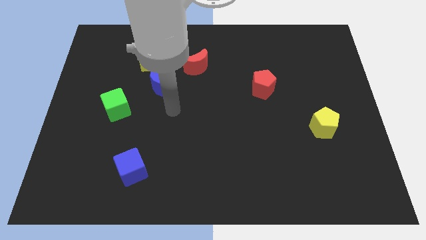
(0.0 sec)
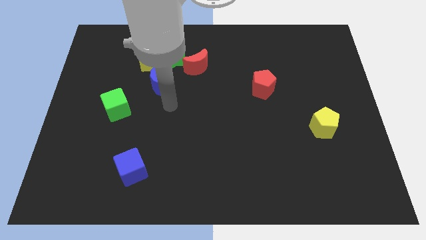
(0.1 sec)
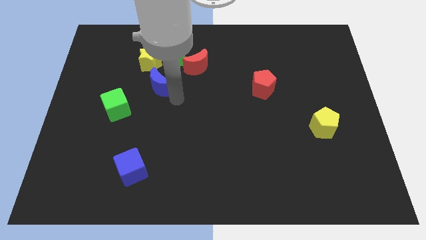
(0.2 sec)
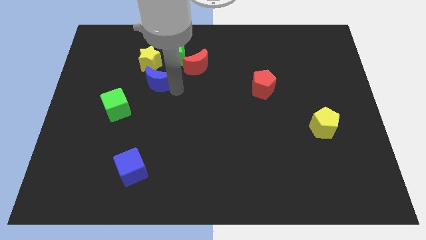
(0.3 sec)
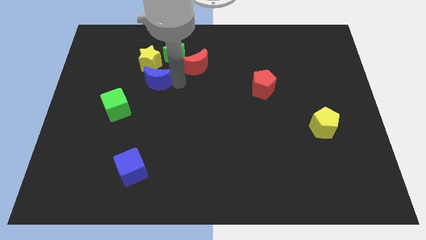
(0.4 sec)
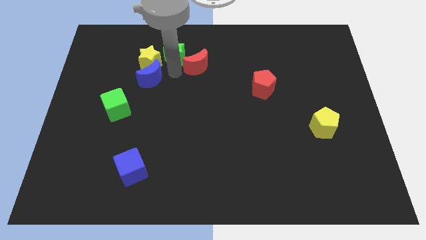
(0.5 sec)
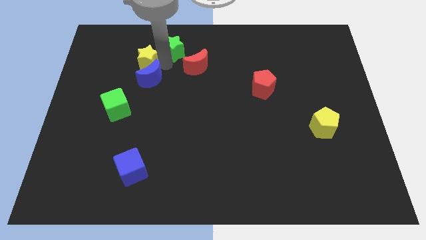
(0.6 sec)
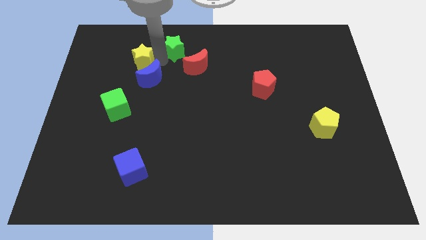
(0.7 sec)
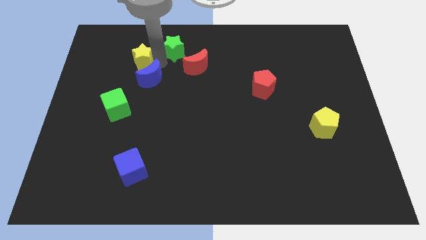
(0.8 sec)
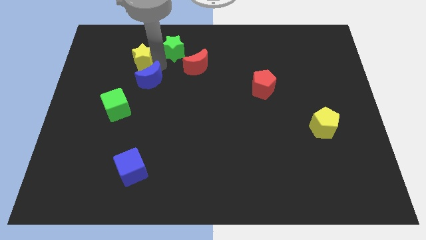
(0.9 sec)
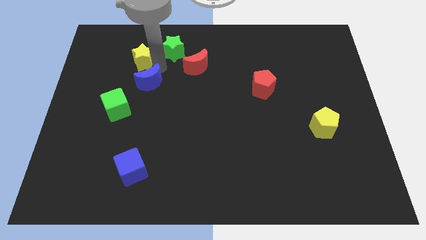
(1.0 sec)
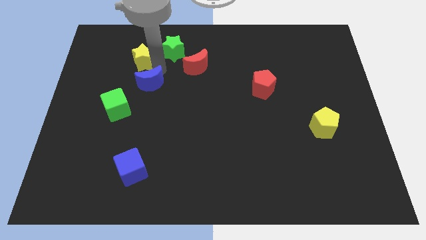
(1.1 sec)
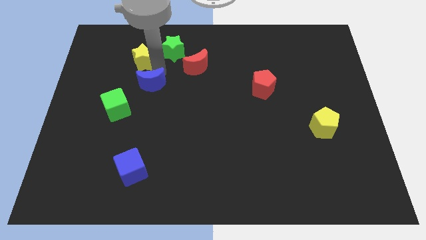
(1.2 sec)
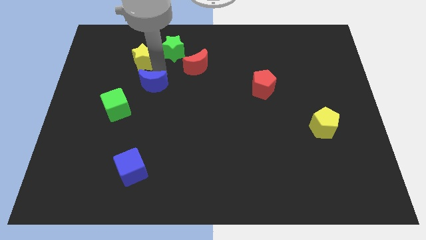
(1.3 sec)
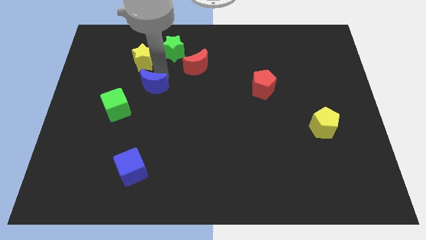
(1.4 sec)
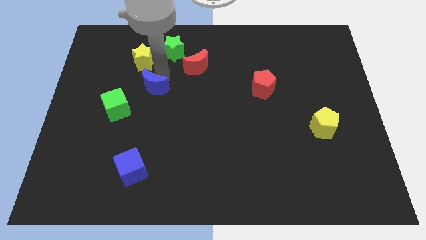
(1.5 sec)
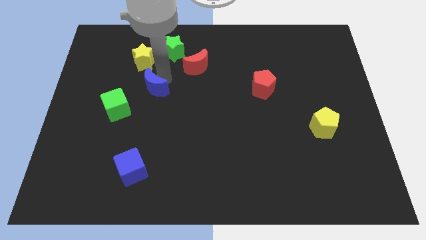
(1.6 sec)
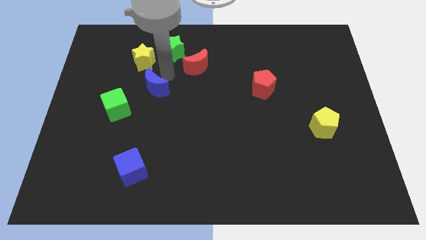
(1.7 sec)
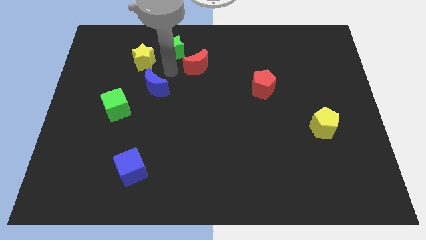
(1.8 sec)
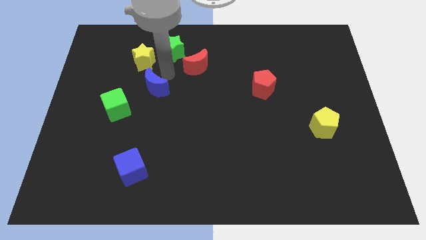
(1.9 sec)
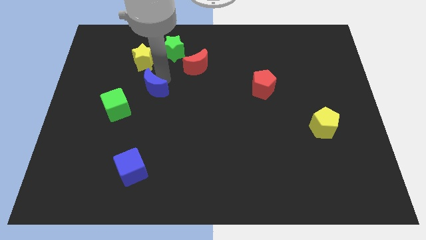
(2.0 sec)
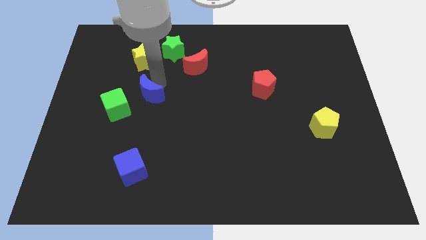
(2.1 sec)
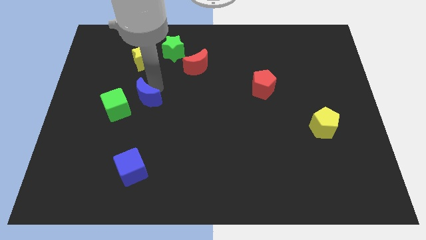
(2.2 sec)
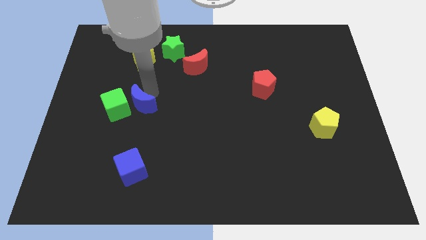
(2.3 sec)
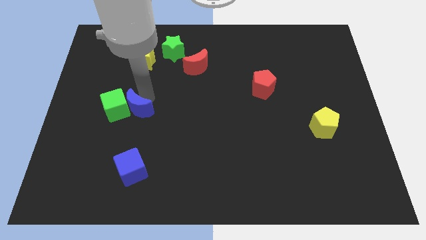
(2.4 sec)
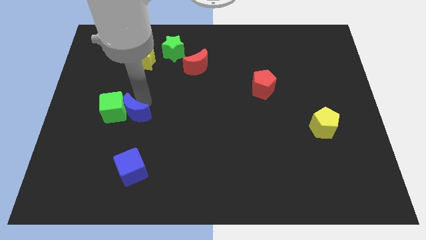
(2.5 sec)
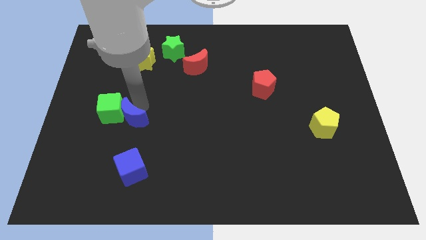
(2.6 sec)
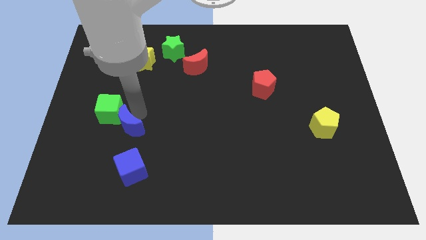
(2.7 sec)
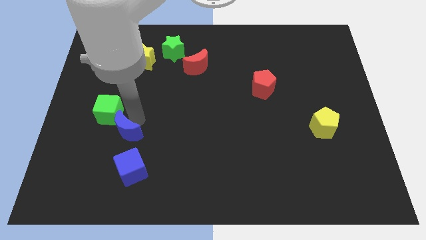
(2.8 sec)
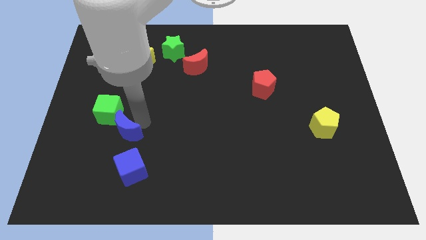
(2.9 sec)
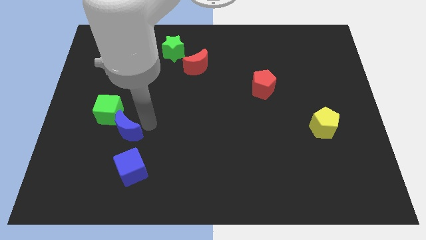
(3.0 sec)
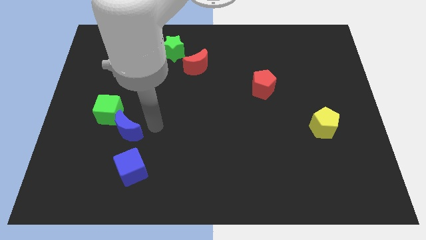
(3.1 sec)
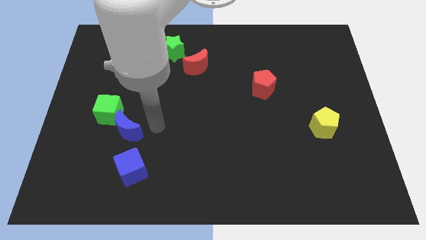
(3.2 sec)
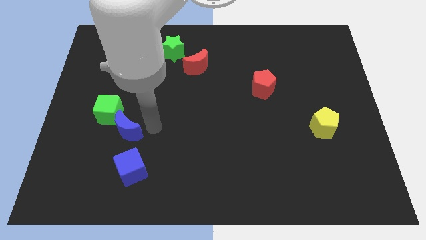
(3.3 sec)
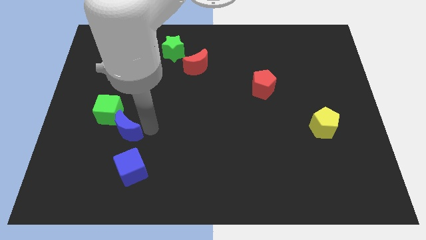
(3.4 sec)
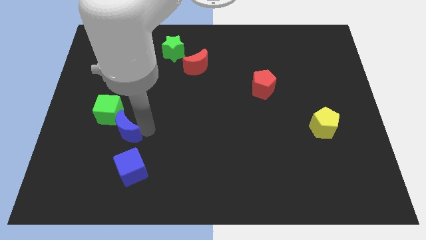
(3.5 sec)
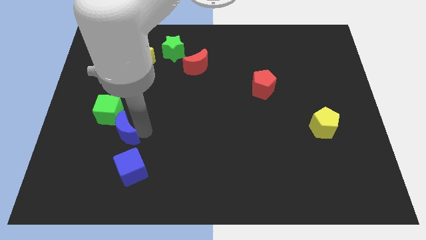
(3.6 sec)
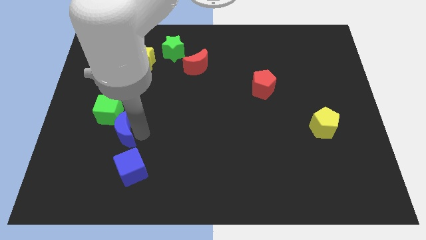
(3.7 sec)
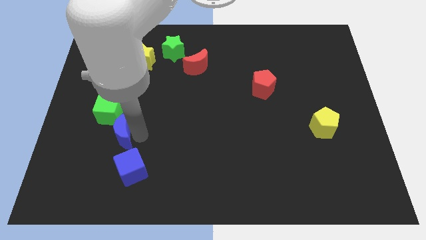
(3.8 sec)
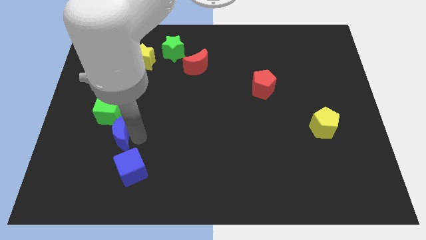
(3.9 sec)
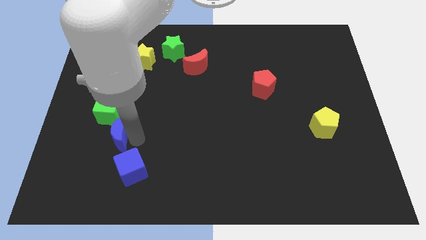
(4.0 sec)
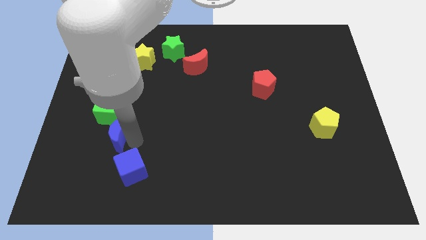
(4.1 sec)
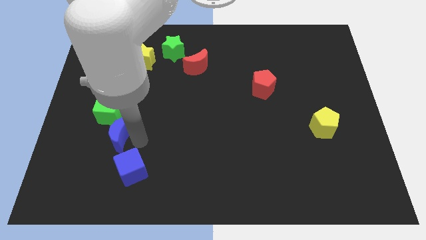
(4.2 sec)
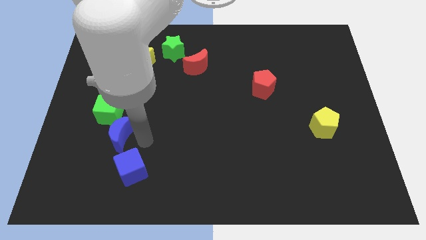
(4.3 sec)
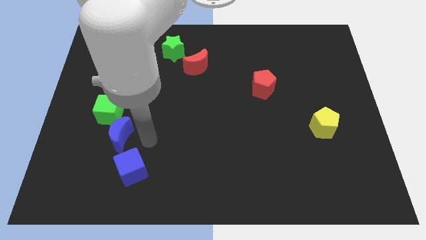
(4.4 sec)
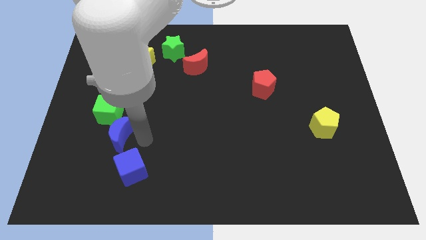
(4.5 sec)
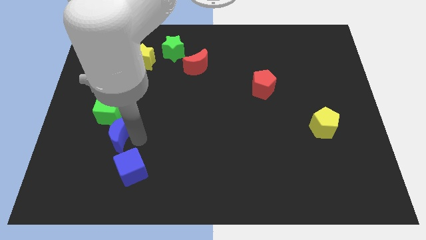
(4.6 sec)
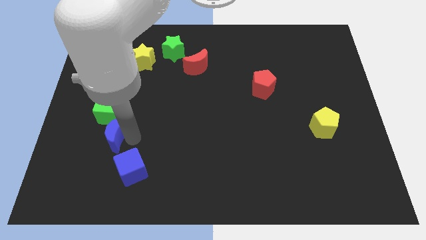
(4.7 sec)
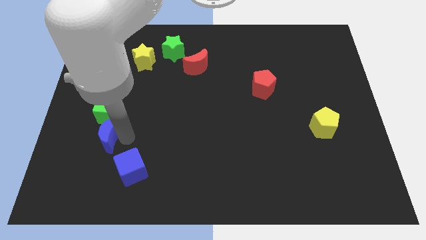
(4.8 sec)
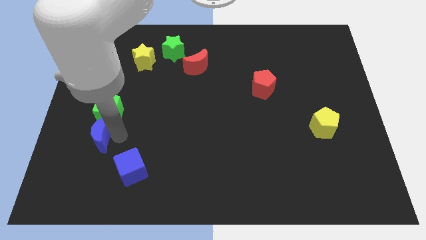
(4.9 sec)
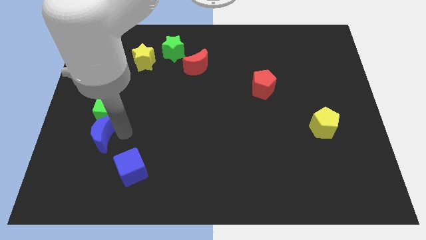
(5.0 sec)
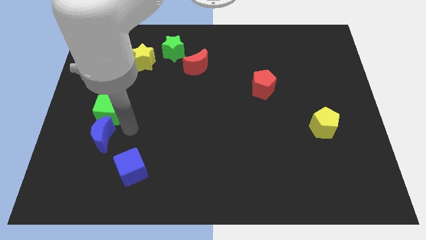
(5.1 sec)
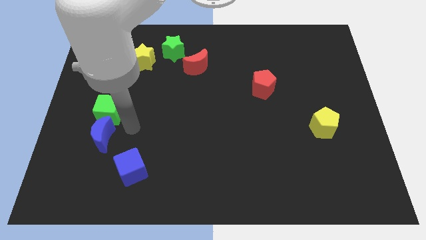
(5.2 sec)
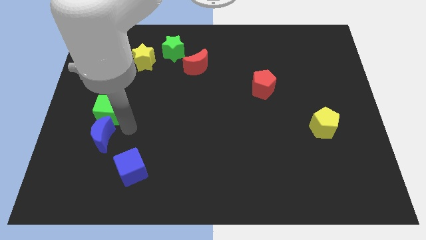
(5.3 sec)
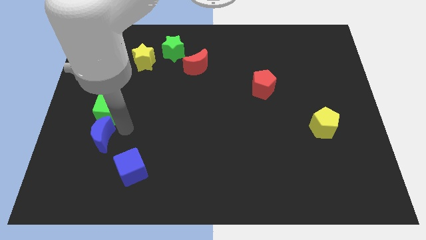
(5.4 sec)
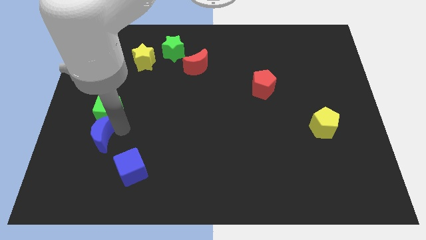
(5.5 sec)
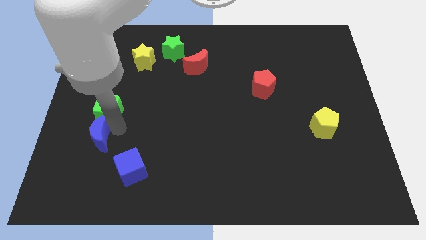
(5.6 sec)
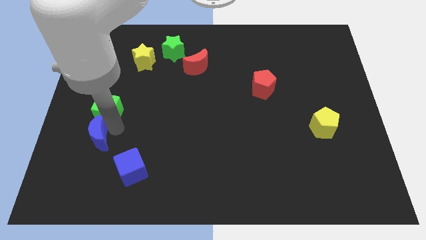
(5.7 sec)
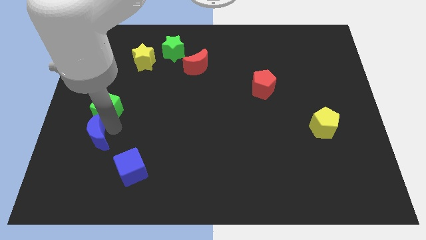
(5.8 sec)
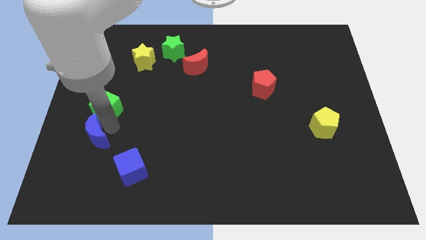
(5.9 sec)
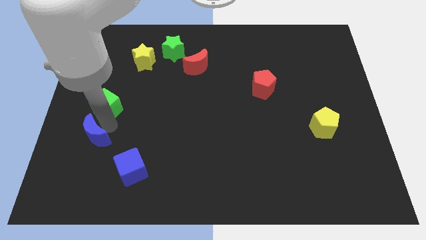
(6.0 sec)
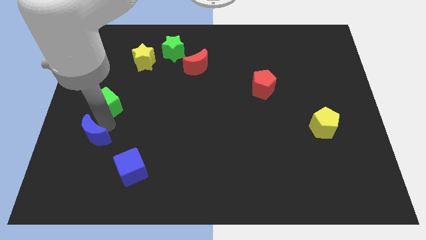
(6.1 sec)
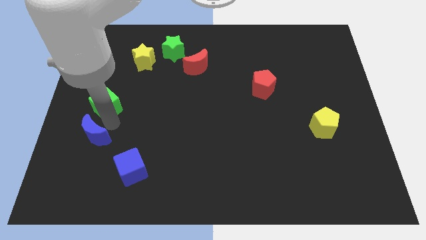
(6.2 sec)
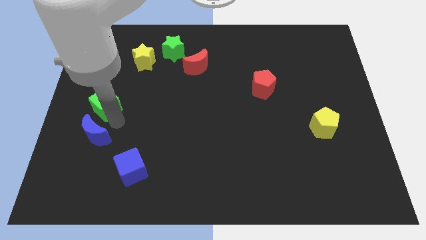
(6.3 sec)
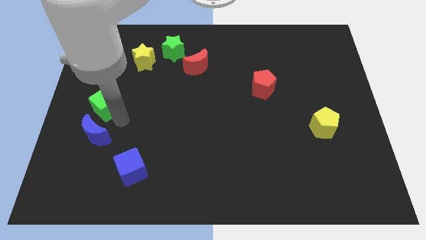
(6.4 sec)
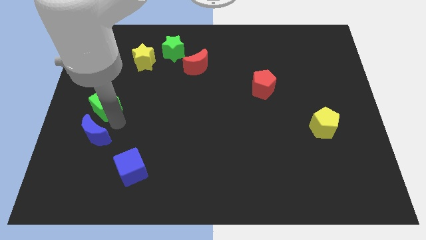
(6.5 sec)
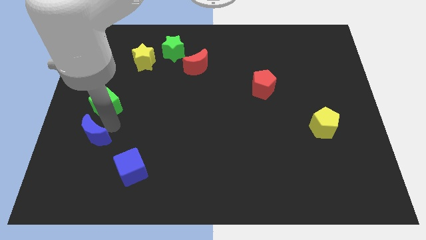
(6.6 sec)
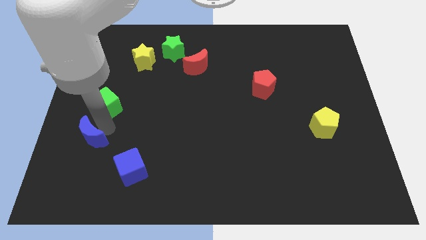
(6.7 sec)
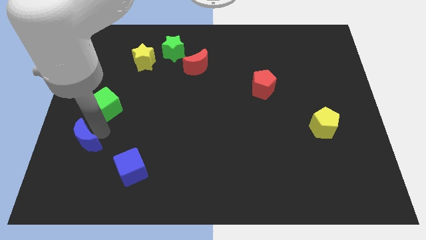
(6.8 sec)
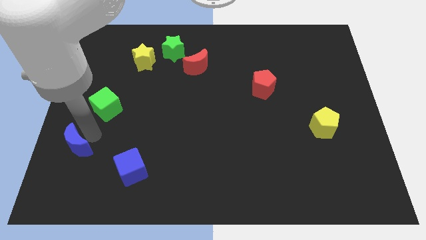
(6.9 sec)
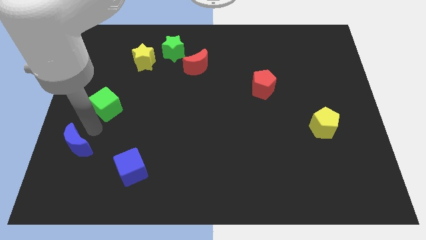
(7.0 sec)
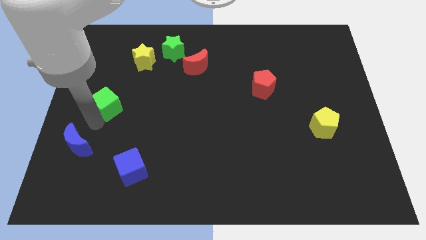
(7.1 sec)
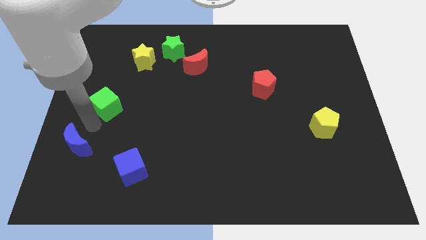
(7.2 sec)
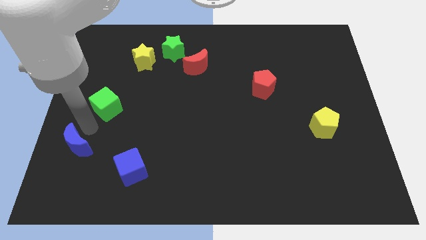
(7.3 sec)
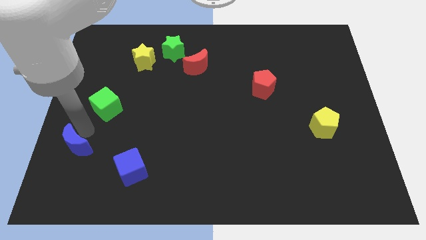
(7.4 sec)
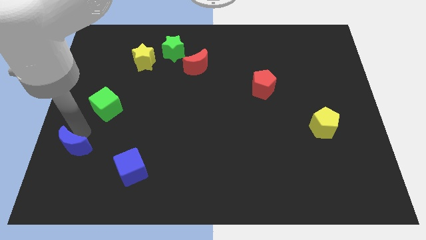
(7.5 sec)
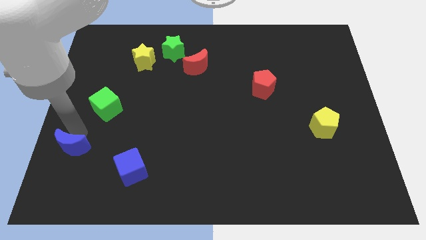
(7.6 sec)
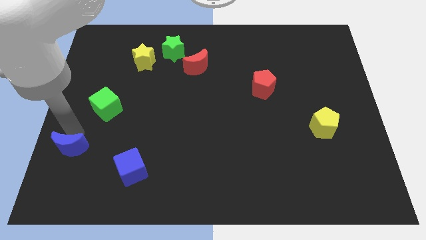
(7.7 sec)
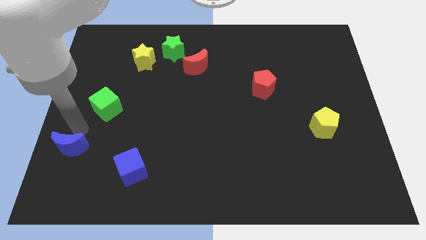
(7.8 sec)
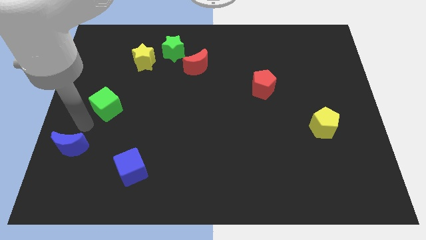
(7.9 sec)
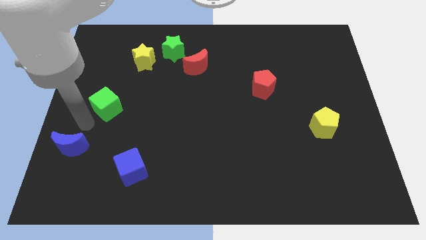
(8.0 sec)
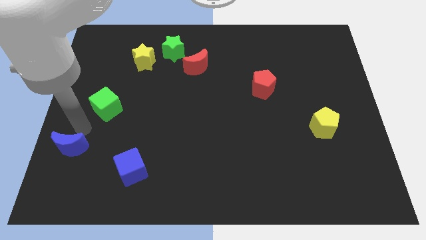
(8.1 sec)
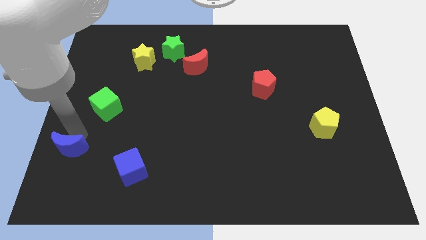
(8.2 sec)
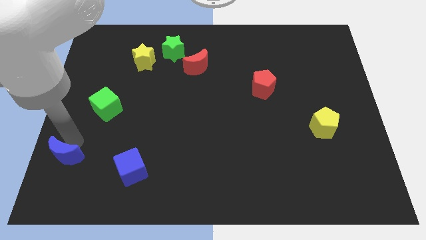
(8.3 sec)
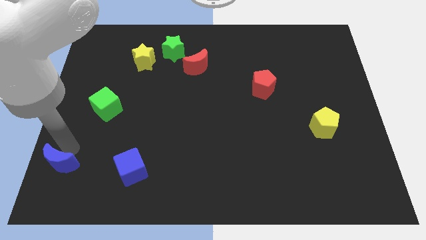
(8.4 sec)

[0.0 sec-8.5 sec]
put the blue moon to the bottom left corner
